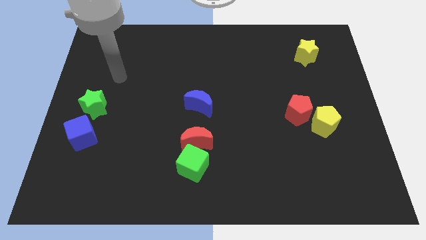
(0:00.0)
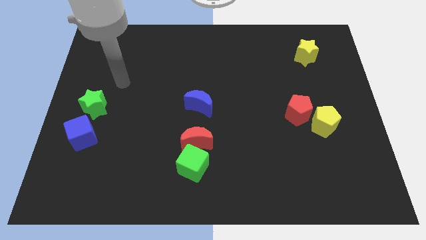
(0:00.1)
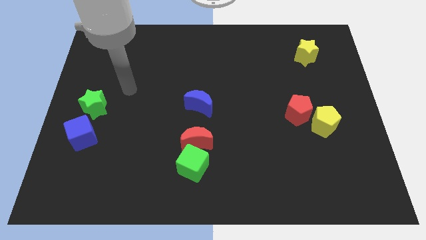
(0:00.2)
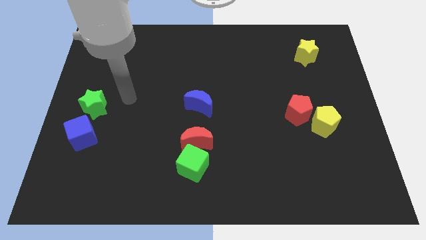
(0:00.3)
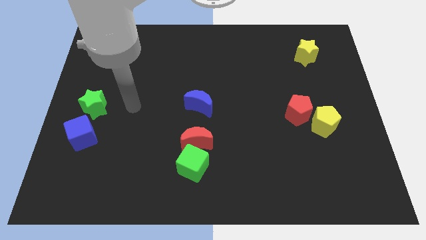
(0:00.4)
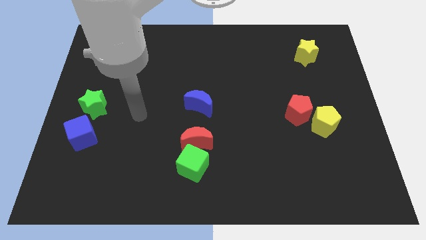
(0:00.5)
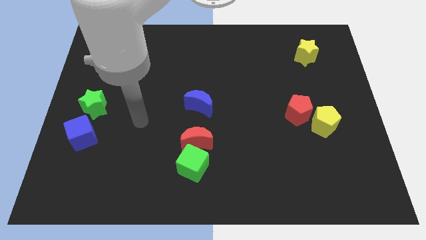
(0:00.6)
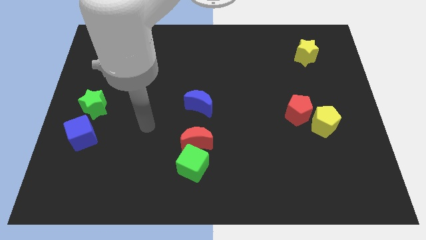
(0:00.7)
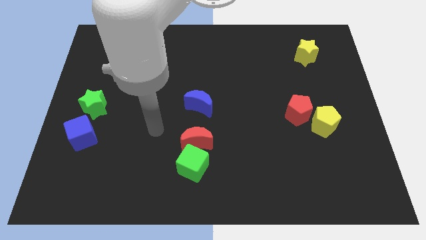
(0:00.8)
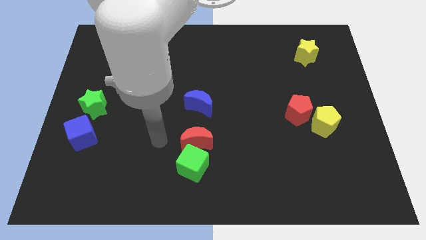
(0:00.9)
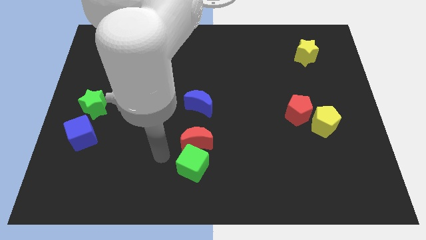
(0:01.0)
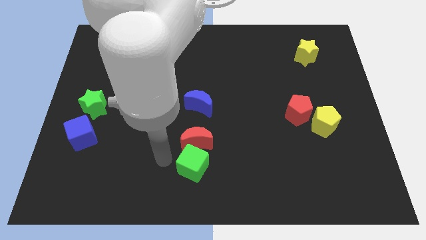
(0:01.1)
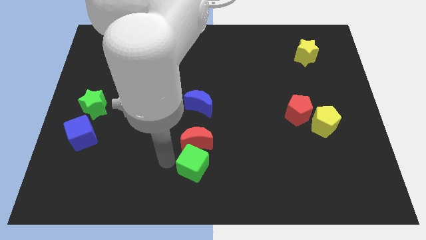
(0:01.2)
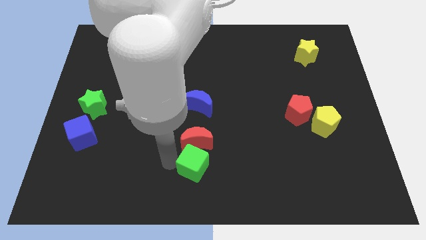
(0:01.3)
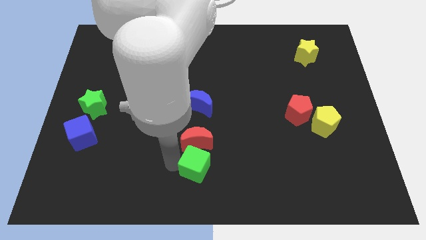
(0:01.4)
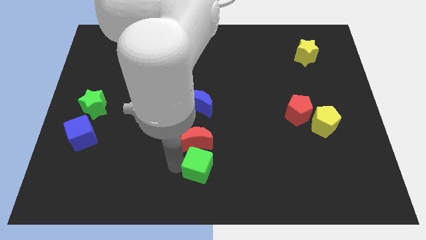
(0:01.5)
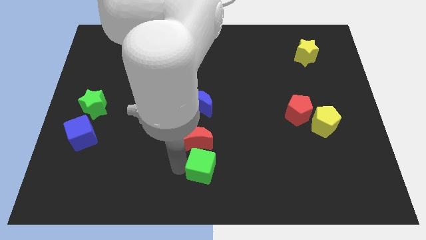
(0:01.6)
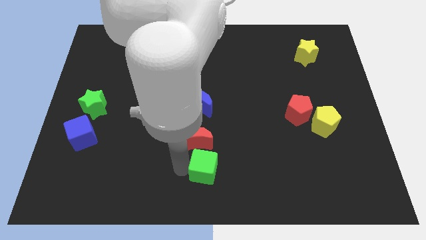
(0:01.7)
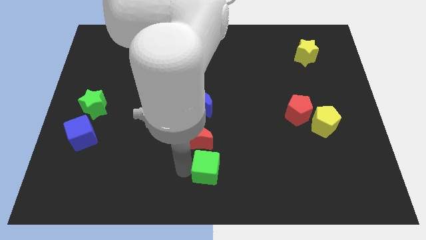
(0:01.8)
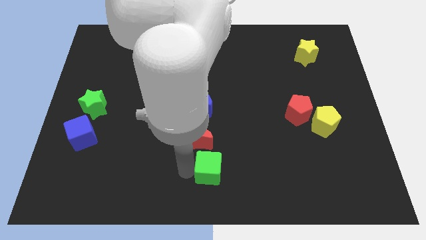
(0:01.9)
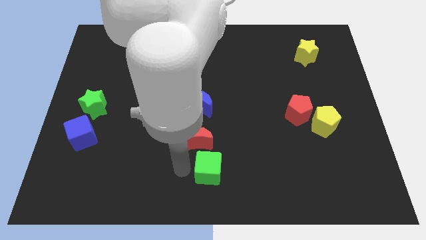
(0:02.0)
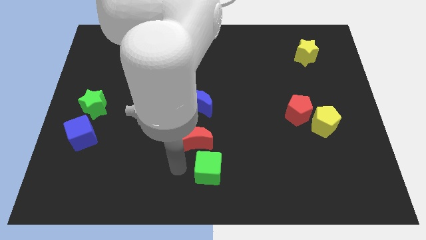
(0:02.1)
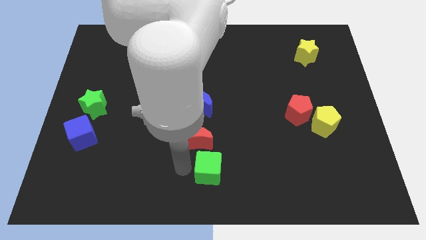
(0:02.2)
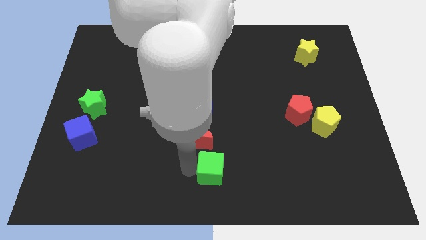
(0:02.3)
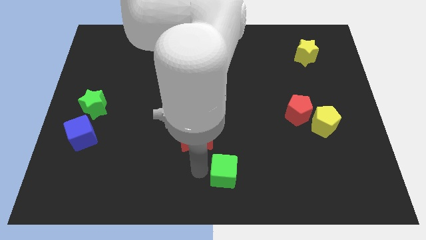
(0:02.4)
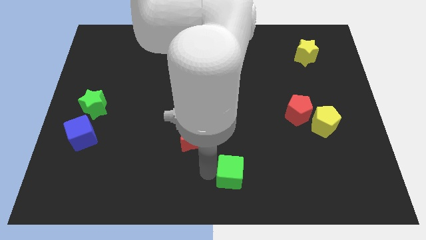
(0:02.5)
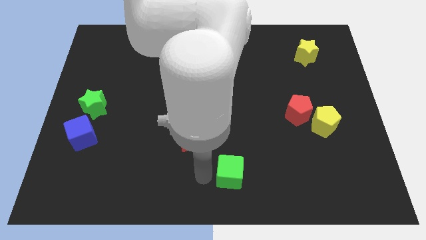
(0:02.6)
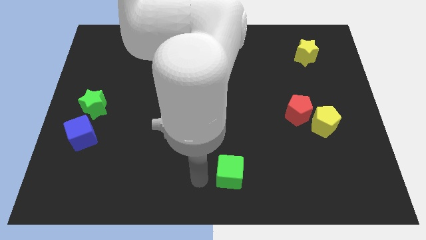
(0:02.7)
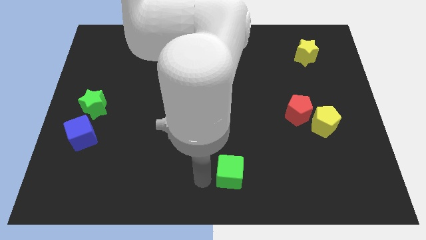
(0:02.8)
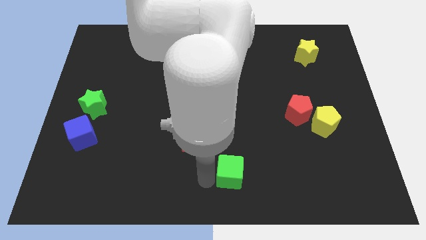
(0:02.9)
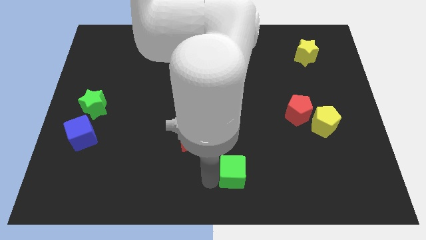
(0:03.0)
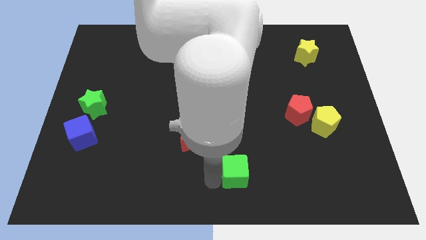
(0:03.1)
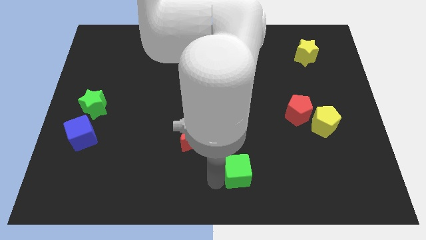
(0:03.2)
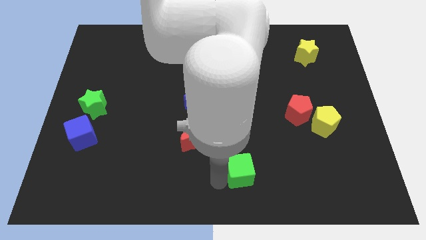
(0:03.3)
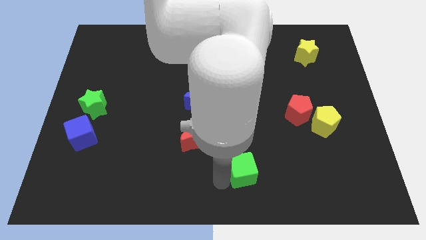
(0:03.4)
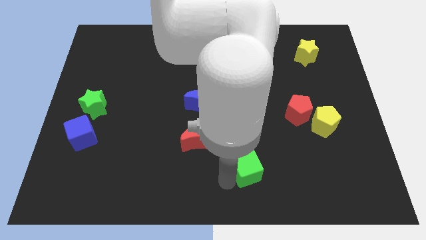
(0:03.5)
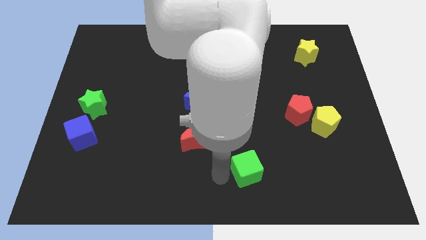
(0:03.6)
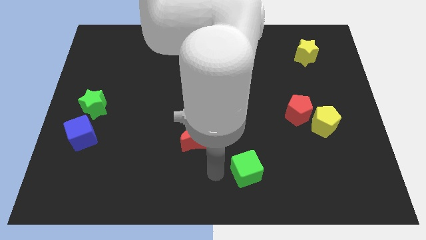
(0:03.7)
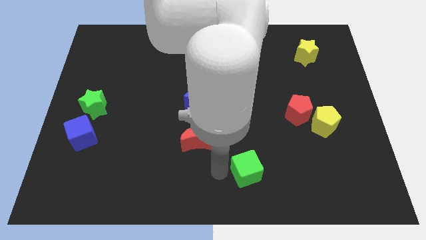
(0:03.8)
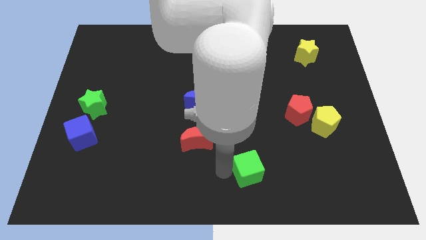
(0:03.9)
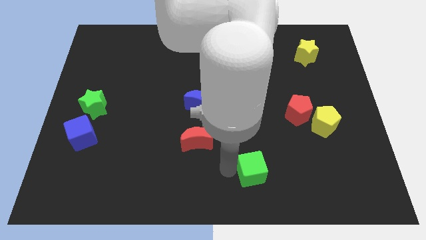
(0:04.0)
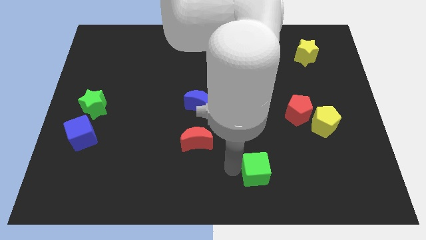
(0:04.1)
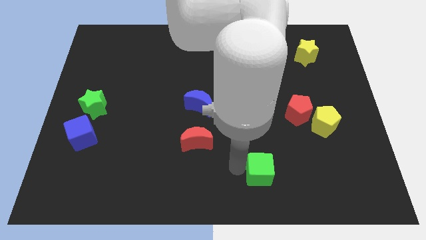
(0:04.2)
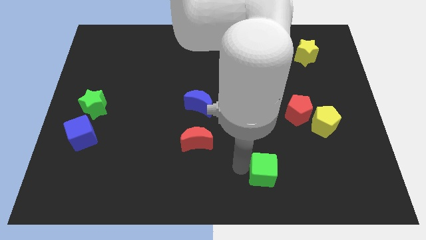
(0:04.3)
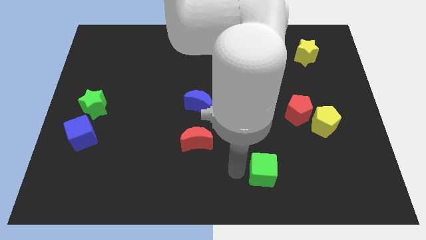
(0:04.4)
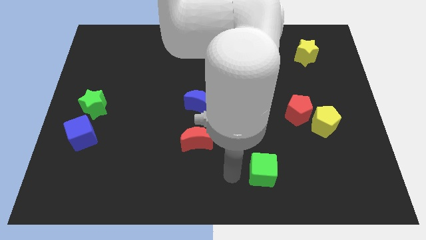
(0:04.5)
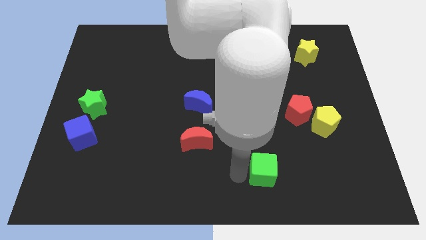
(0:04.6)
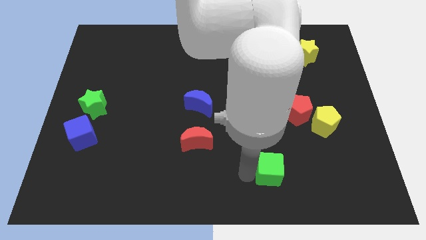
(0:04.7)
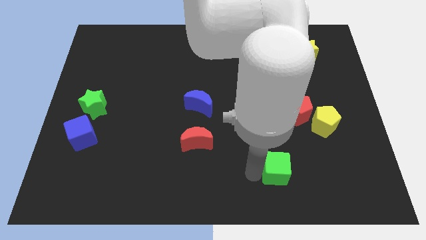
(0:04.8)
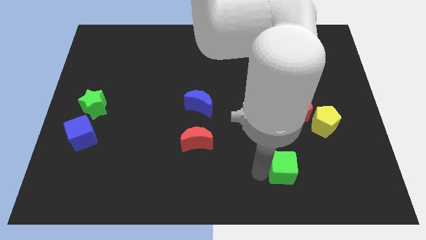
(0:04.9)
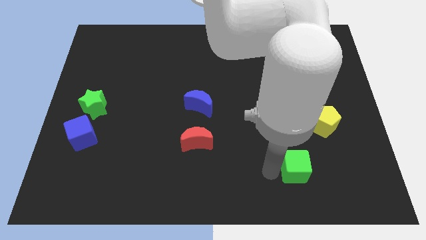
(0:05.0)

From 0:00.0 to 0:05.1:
slide the green cube right

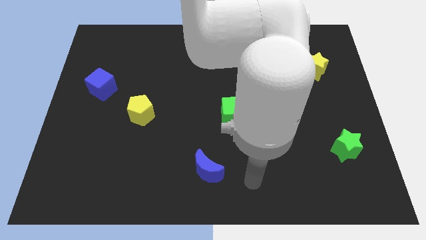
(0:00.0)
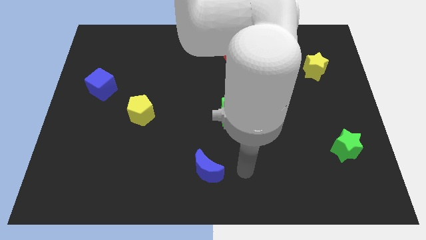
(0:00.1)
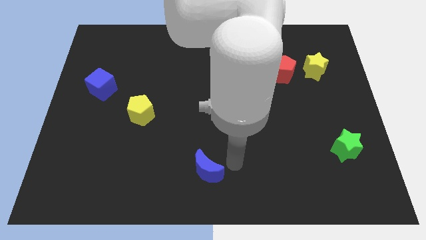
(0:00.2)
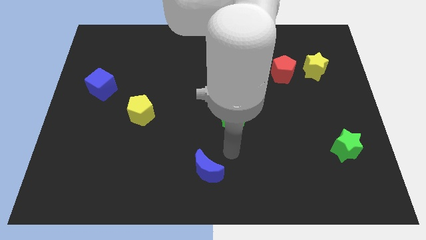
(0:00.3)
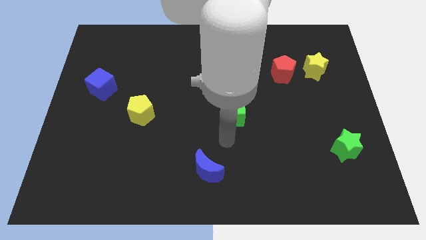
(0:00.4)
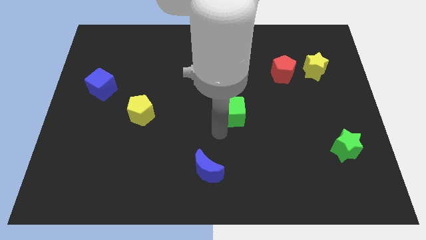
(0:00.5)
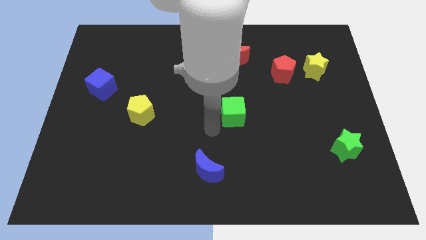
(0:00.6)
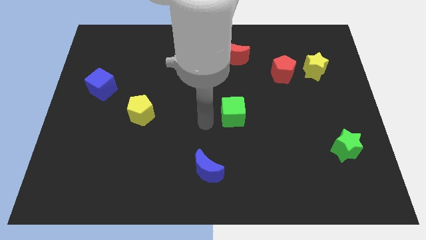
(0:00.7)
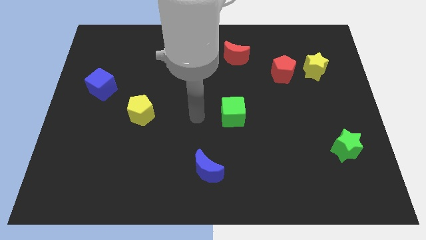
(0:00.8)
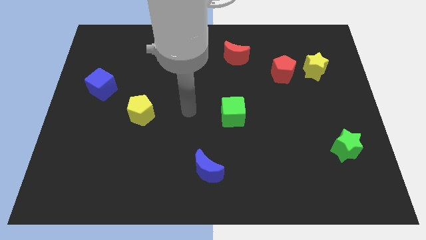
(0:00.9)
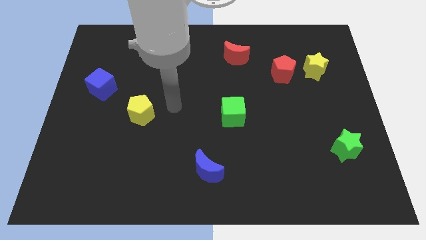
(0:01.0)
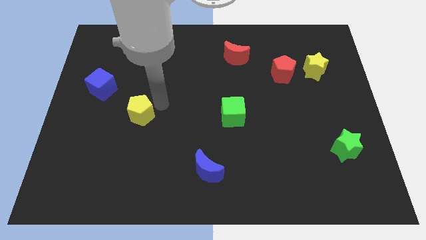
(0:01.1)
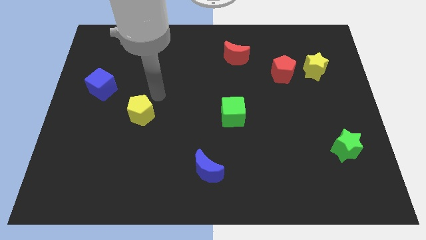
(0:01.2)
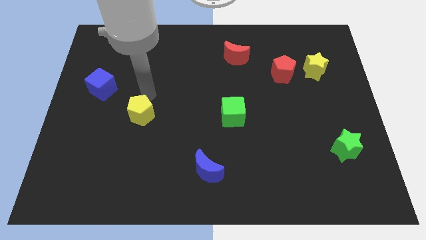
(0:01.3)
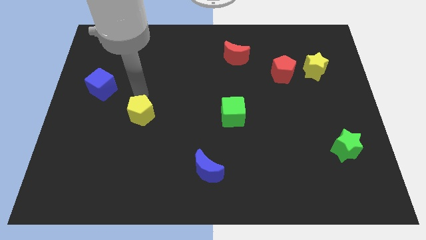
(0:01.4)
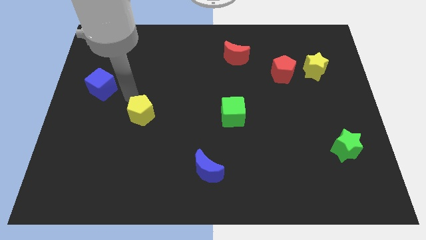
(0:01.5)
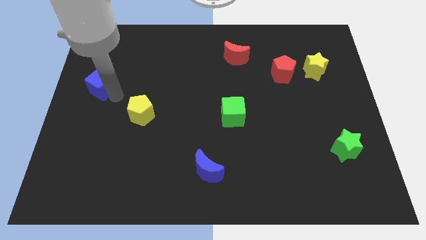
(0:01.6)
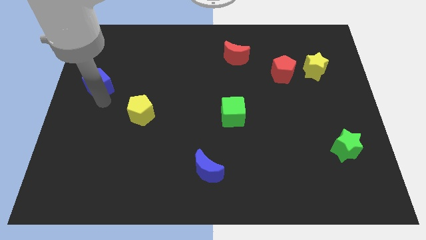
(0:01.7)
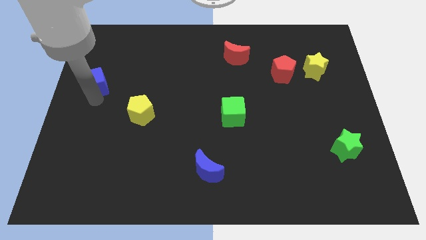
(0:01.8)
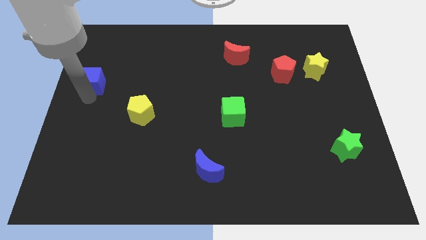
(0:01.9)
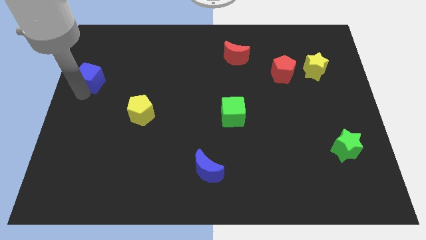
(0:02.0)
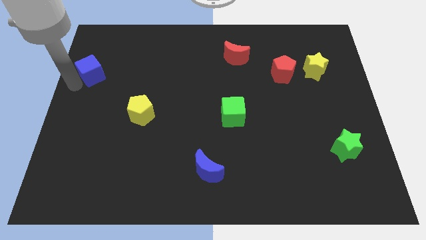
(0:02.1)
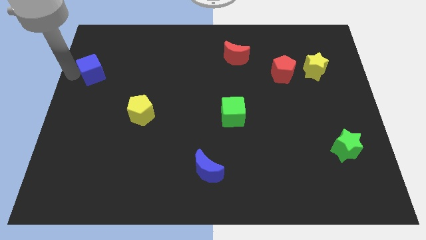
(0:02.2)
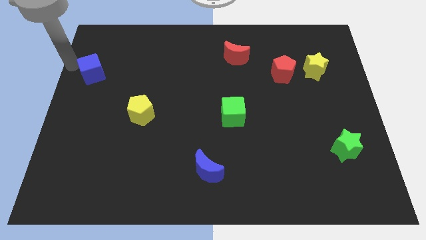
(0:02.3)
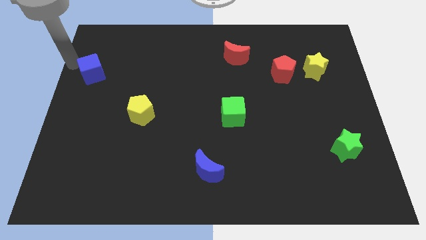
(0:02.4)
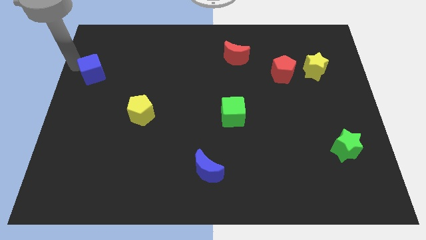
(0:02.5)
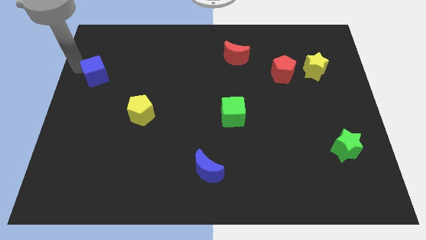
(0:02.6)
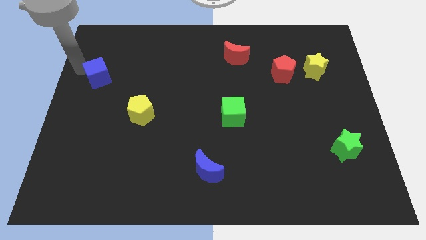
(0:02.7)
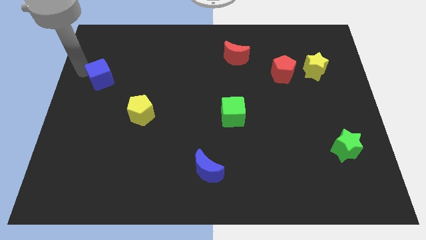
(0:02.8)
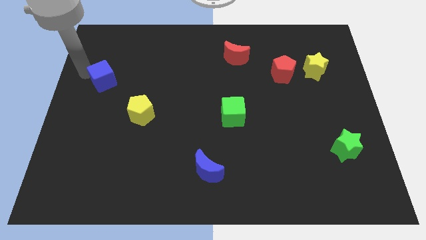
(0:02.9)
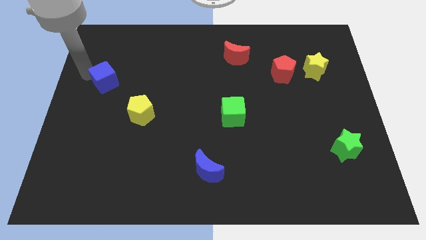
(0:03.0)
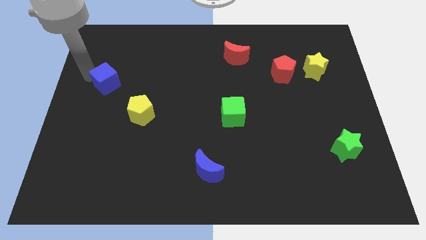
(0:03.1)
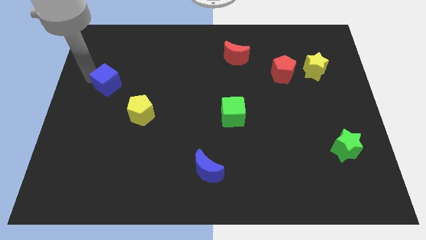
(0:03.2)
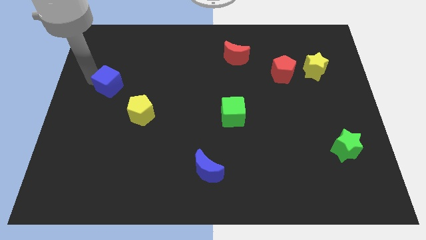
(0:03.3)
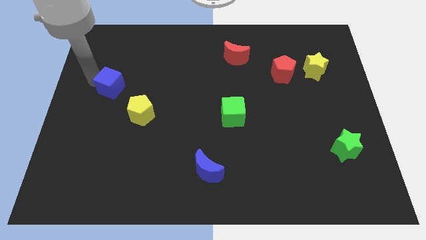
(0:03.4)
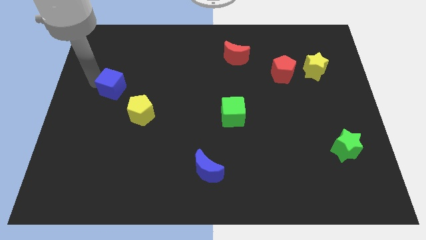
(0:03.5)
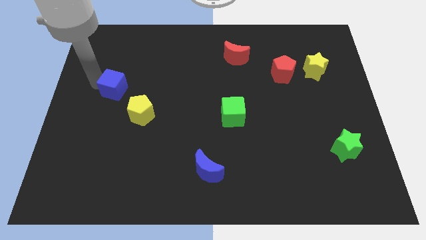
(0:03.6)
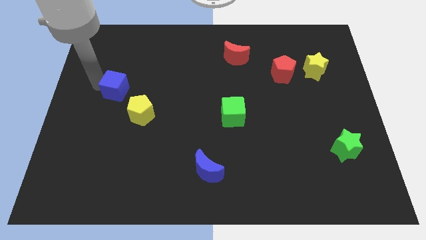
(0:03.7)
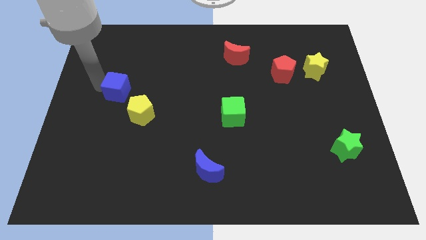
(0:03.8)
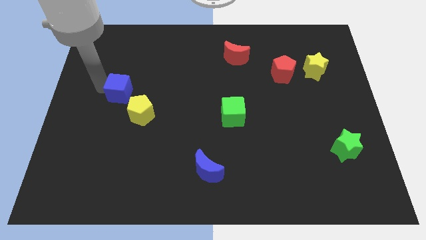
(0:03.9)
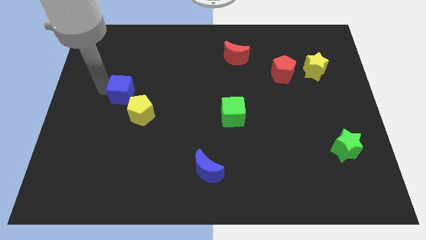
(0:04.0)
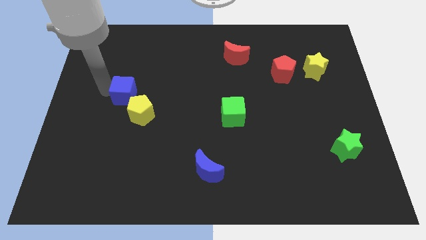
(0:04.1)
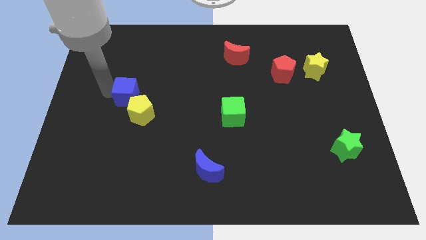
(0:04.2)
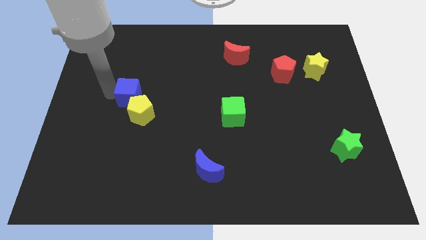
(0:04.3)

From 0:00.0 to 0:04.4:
slightly move the blue cube to the right
